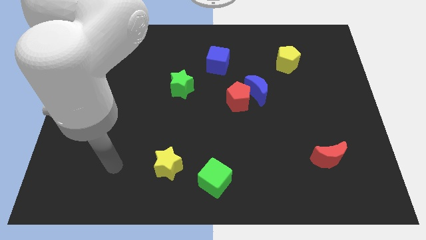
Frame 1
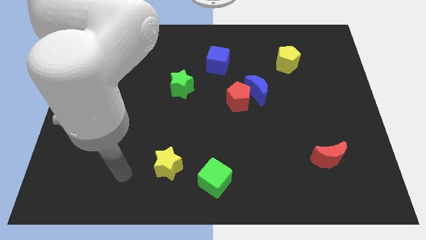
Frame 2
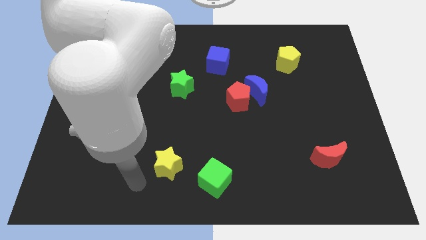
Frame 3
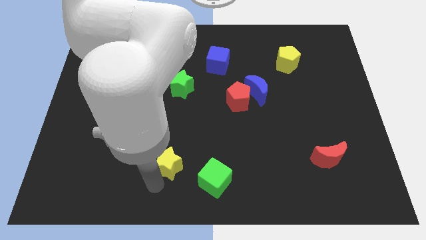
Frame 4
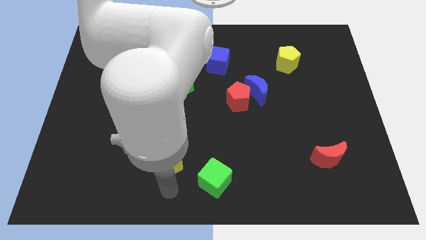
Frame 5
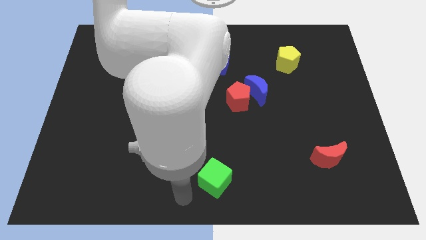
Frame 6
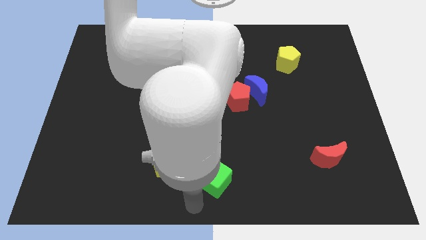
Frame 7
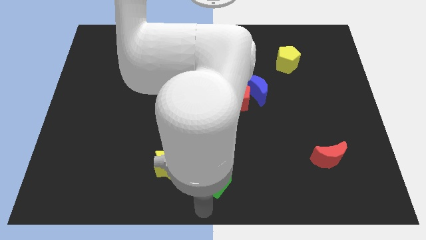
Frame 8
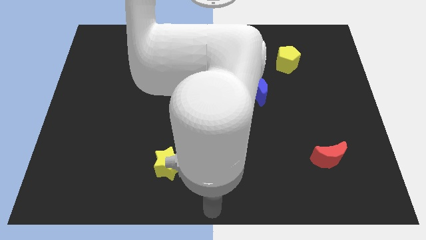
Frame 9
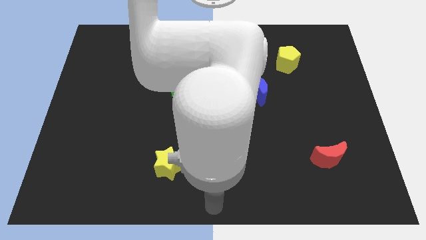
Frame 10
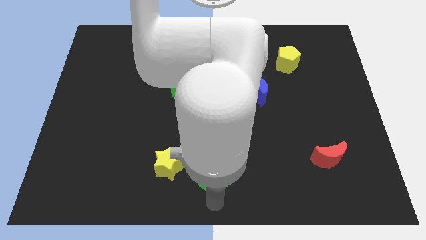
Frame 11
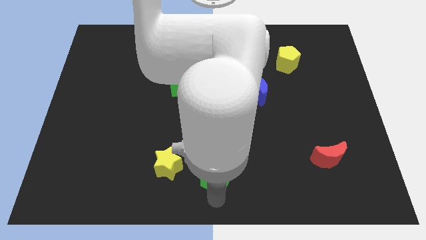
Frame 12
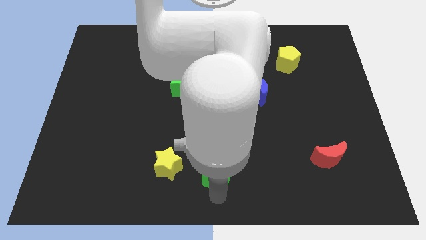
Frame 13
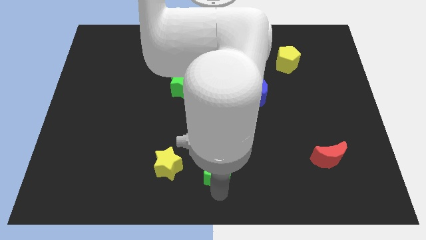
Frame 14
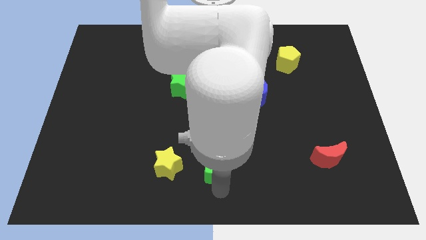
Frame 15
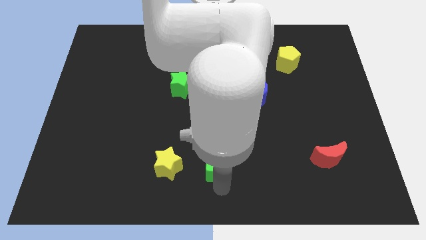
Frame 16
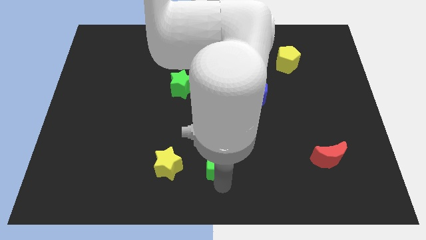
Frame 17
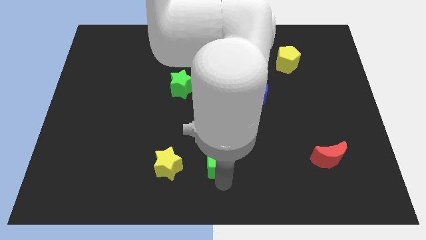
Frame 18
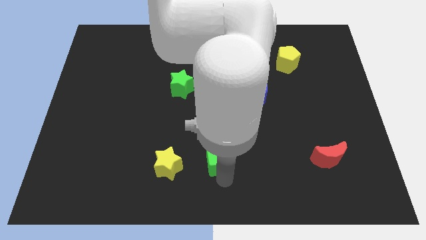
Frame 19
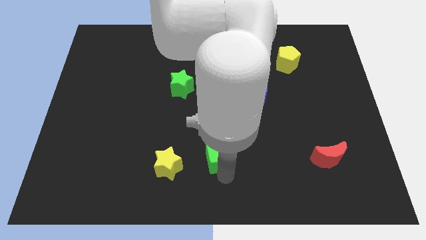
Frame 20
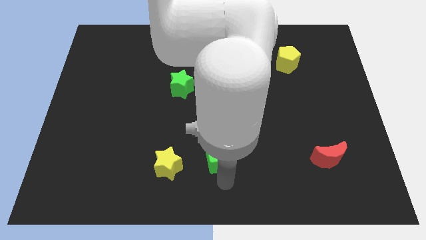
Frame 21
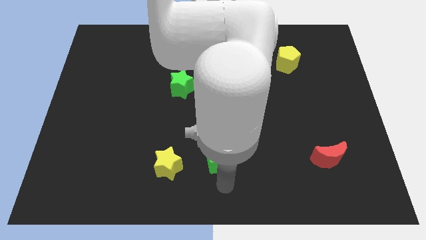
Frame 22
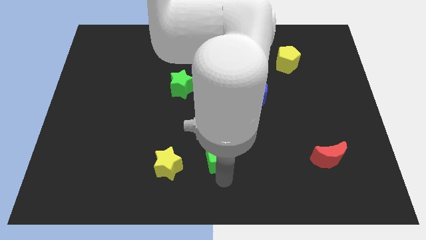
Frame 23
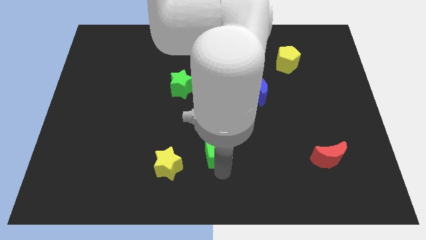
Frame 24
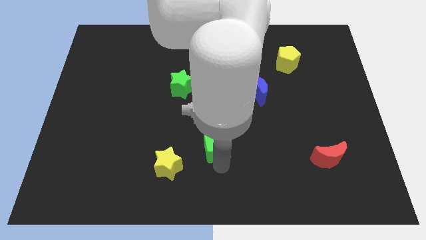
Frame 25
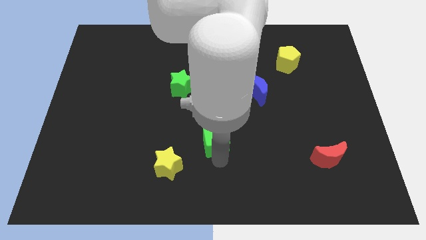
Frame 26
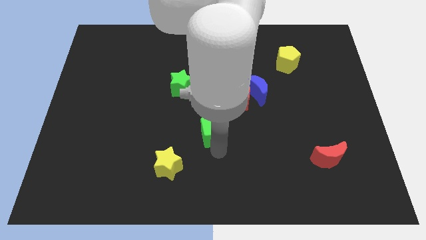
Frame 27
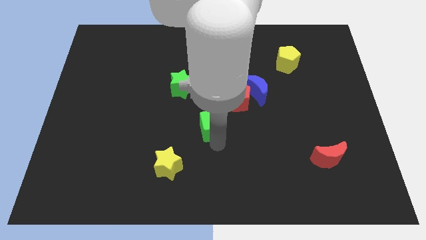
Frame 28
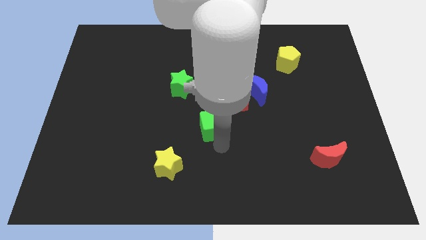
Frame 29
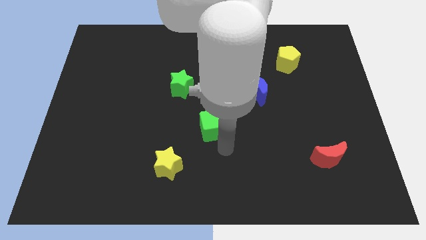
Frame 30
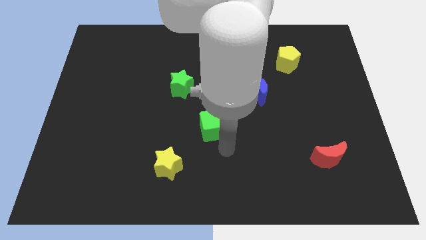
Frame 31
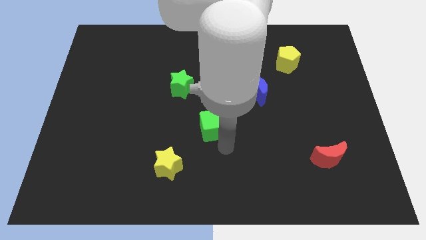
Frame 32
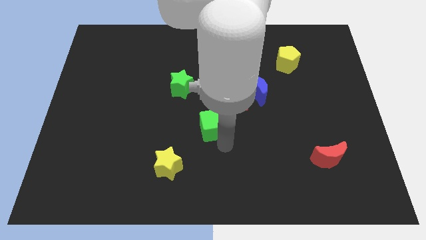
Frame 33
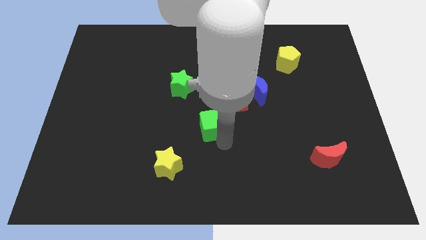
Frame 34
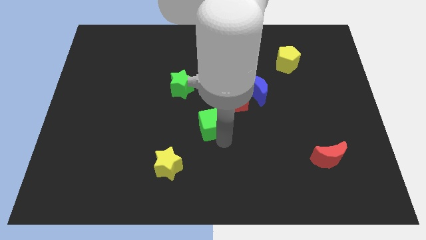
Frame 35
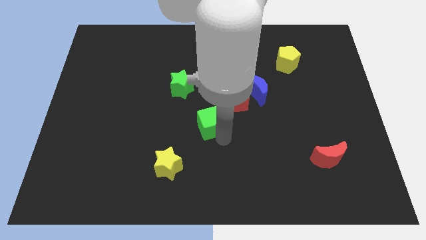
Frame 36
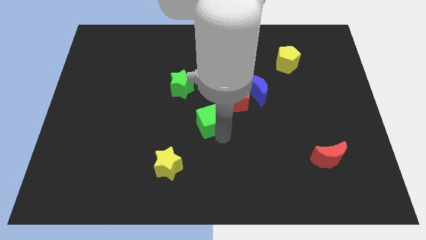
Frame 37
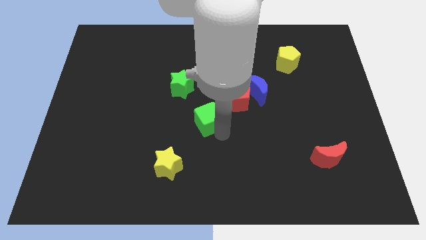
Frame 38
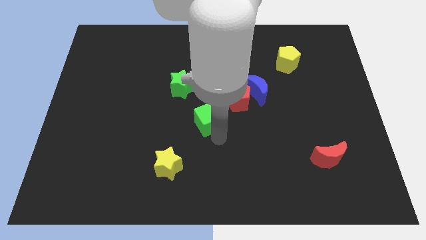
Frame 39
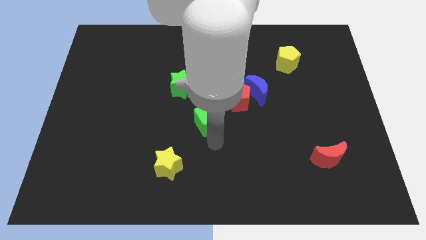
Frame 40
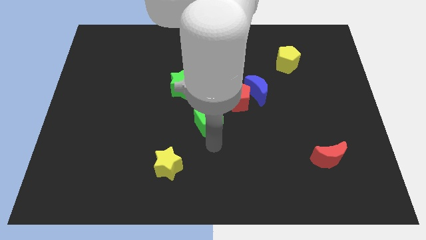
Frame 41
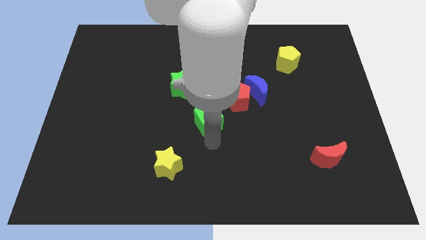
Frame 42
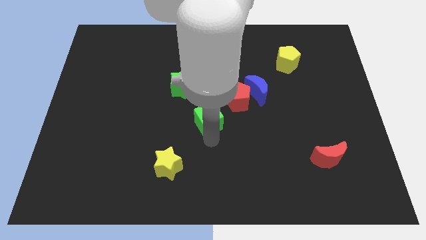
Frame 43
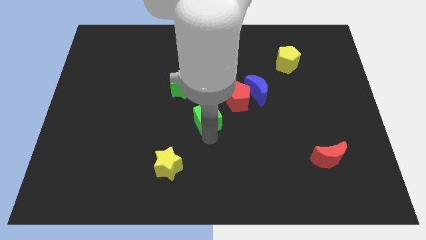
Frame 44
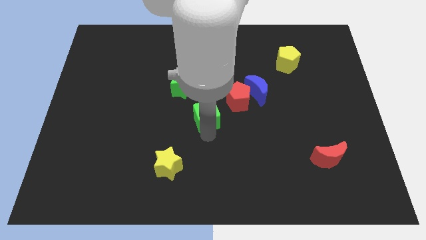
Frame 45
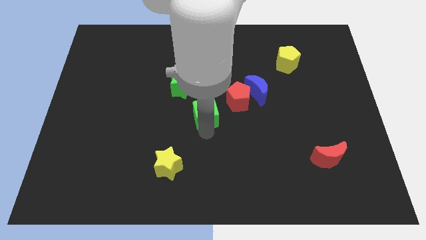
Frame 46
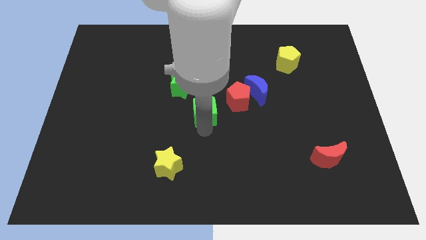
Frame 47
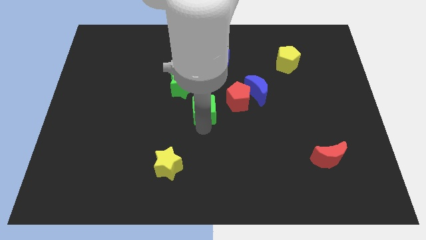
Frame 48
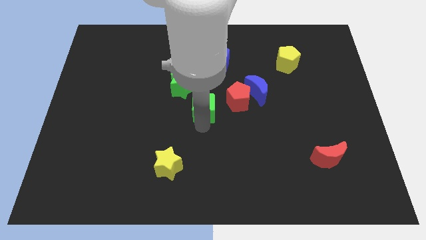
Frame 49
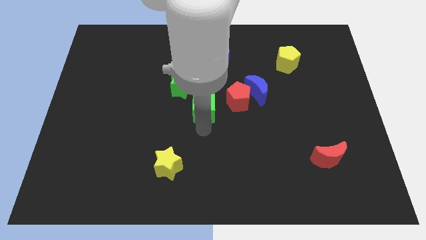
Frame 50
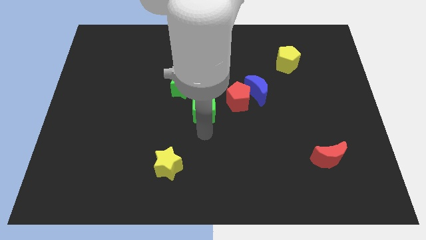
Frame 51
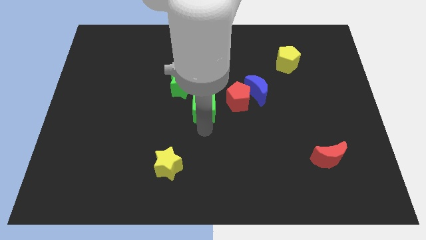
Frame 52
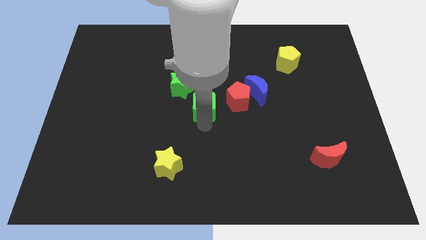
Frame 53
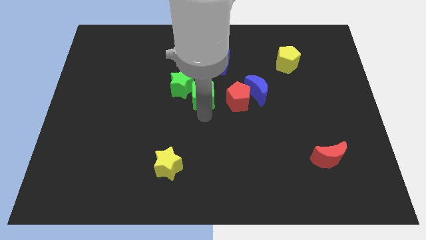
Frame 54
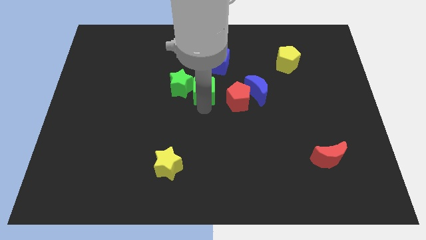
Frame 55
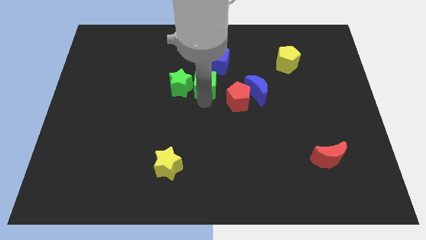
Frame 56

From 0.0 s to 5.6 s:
slide the green cube to the top right of the green star

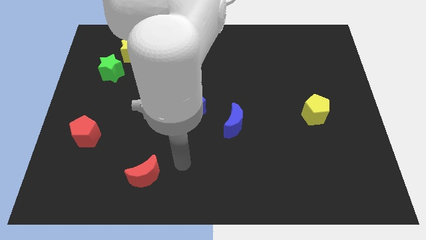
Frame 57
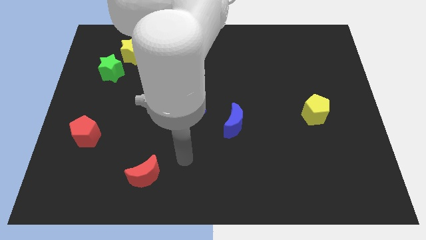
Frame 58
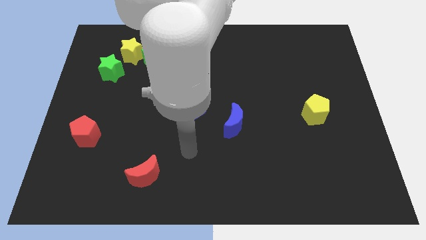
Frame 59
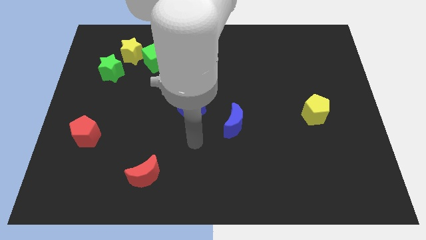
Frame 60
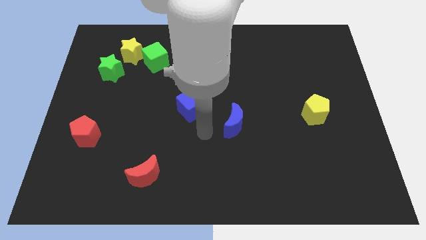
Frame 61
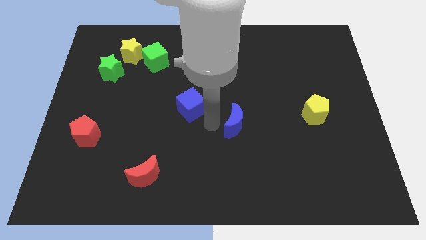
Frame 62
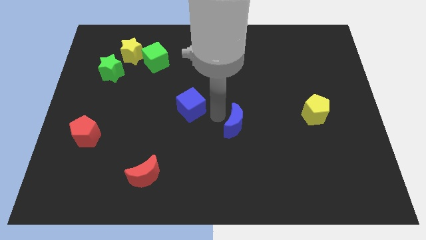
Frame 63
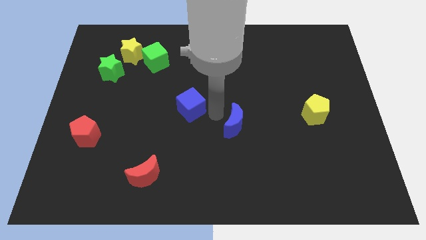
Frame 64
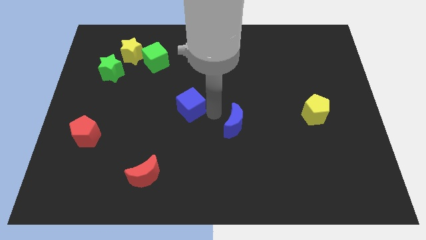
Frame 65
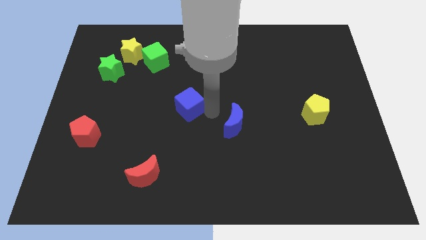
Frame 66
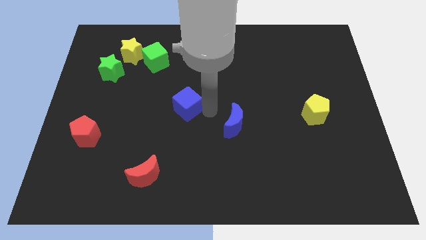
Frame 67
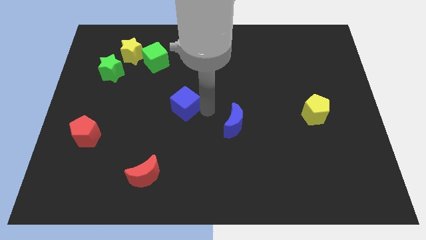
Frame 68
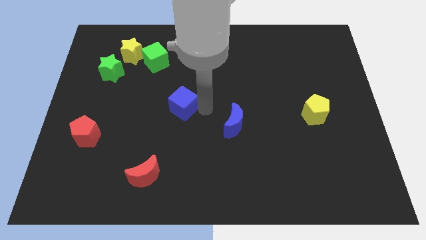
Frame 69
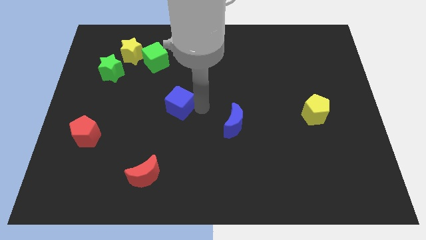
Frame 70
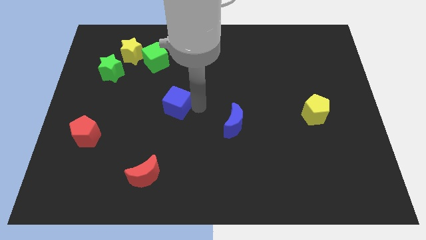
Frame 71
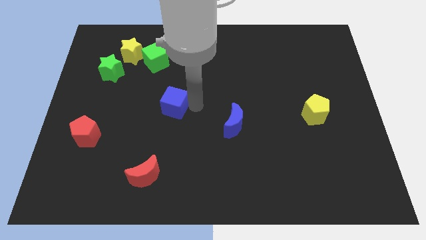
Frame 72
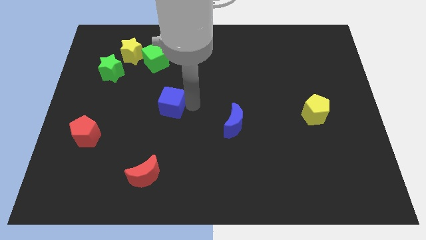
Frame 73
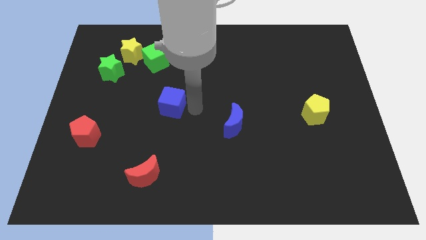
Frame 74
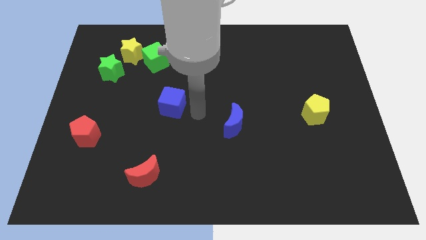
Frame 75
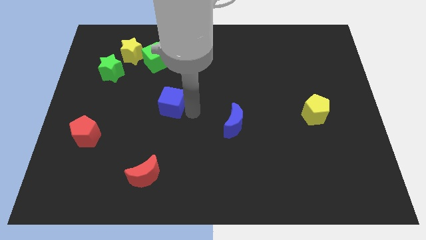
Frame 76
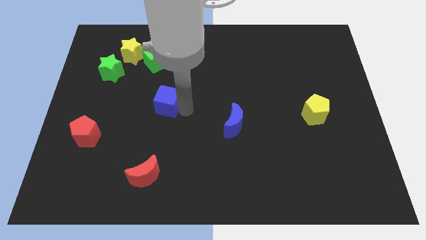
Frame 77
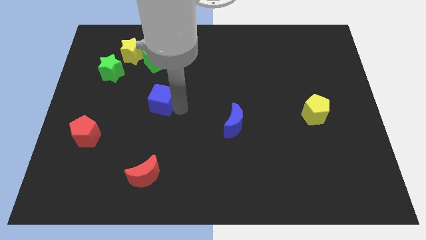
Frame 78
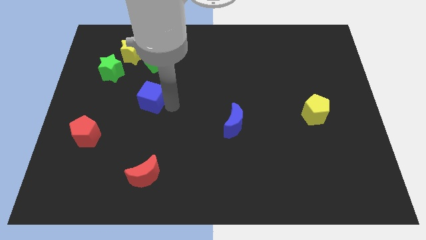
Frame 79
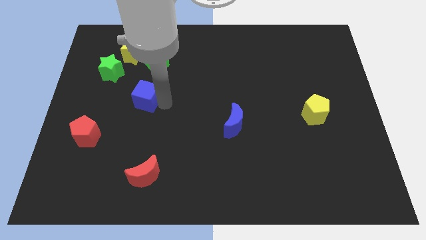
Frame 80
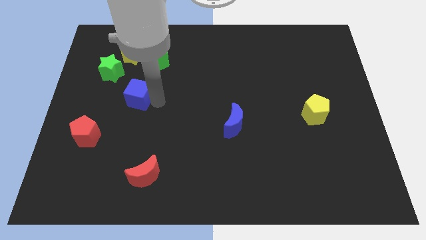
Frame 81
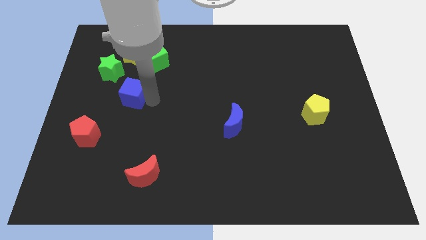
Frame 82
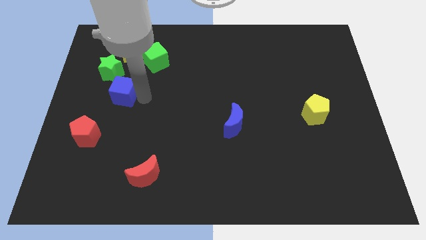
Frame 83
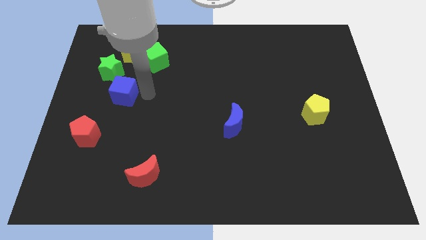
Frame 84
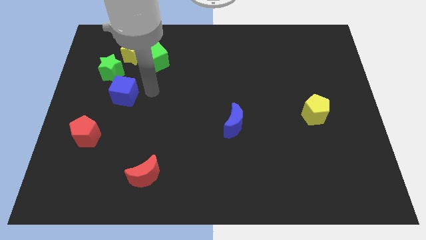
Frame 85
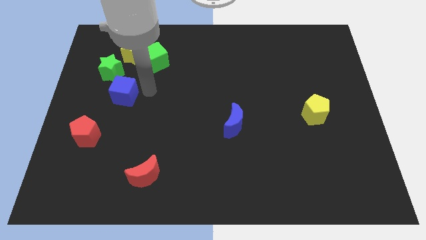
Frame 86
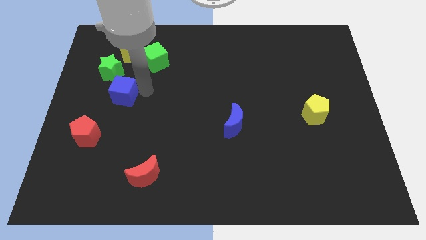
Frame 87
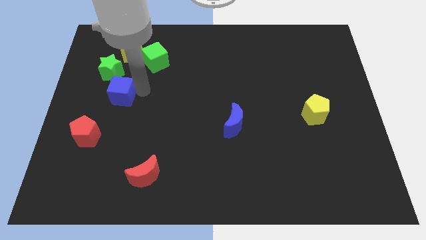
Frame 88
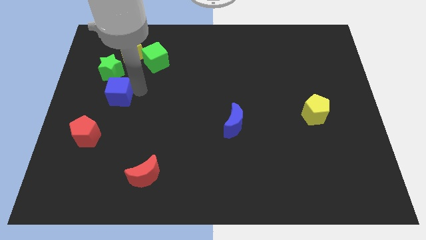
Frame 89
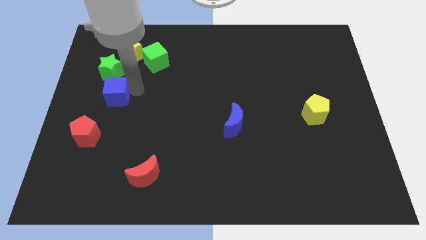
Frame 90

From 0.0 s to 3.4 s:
put the blue cube above the red pentagon
